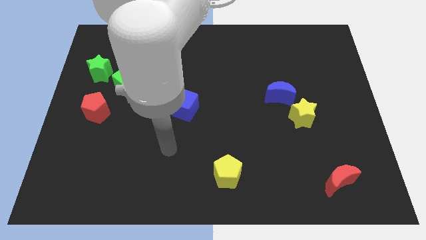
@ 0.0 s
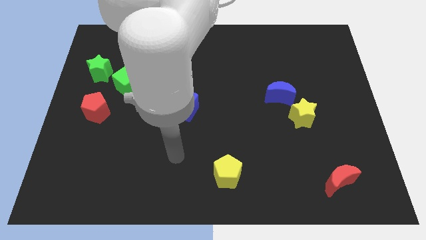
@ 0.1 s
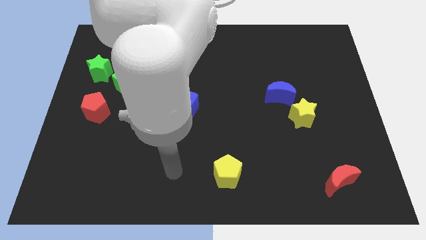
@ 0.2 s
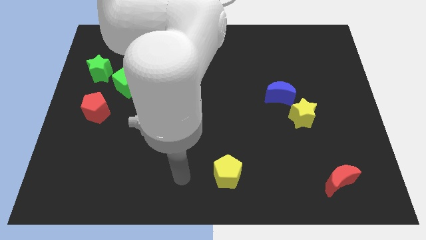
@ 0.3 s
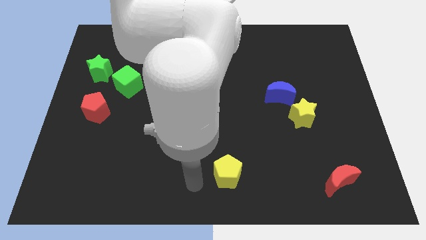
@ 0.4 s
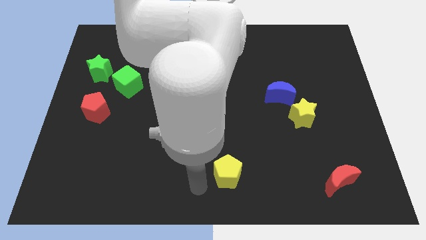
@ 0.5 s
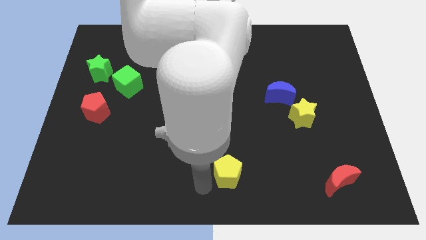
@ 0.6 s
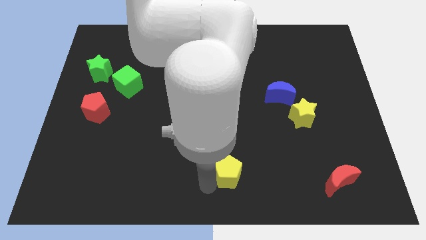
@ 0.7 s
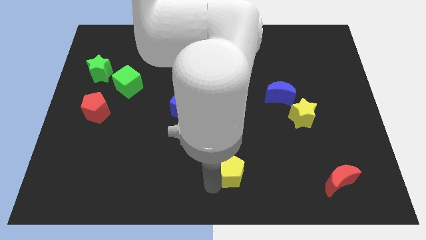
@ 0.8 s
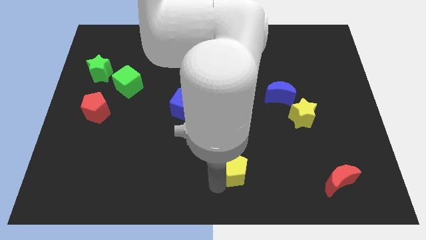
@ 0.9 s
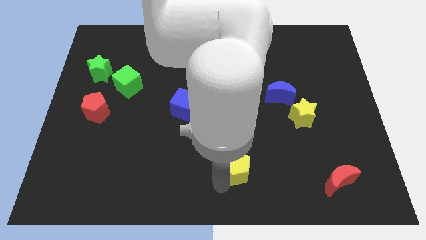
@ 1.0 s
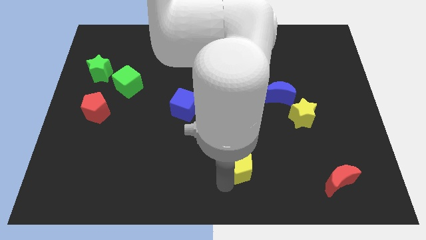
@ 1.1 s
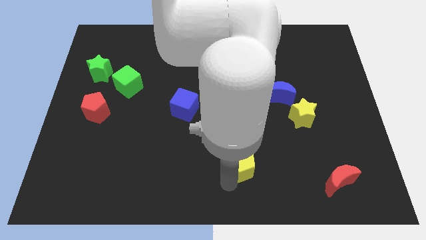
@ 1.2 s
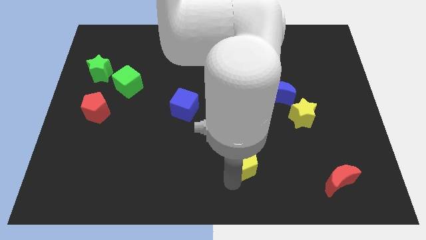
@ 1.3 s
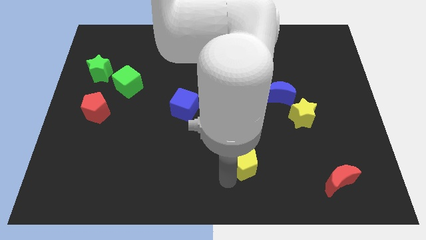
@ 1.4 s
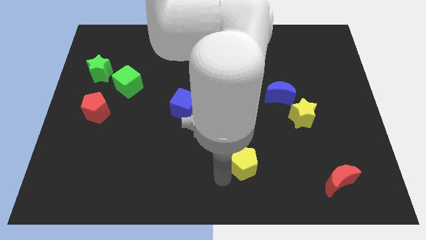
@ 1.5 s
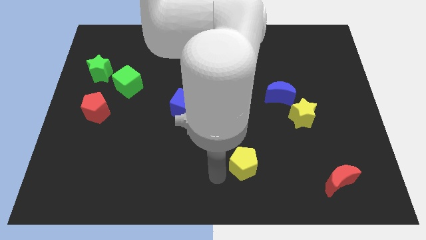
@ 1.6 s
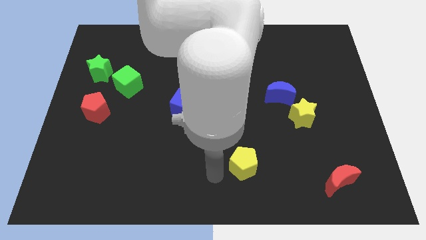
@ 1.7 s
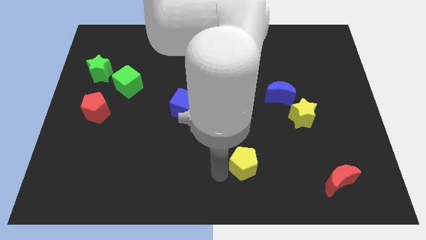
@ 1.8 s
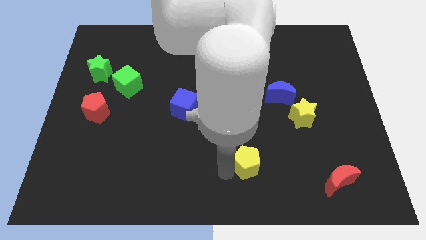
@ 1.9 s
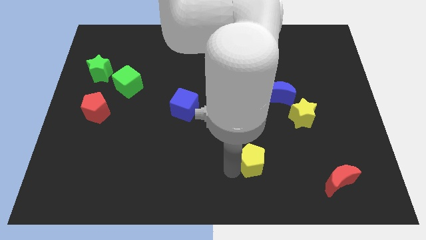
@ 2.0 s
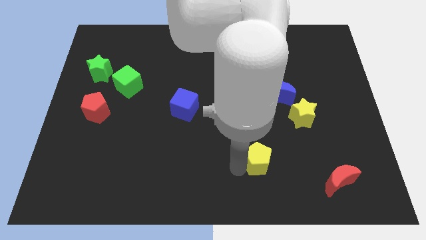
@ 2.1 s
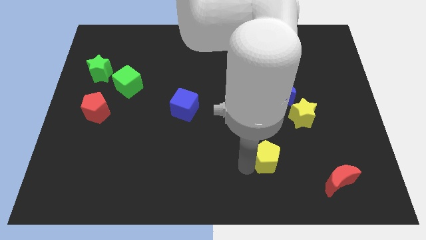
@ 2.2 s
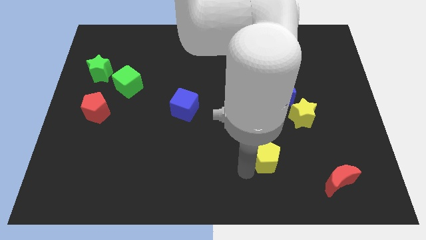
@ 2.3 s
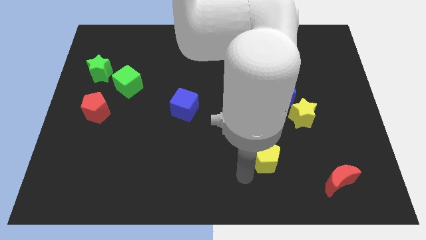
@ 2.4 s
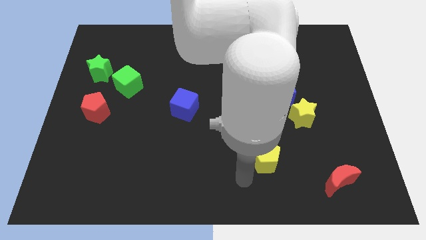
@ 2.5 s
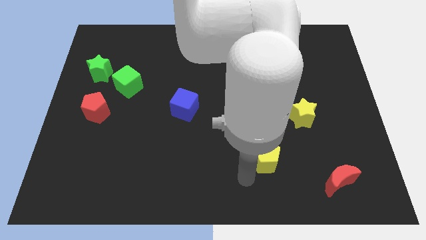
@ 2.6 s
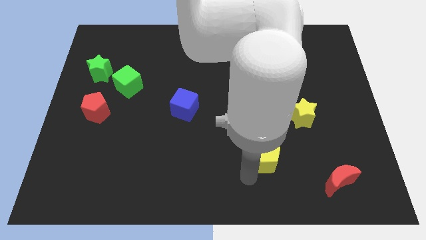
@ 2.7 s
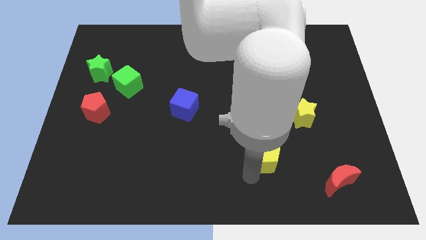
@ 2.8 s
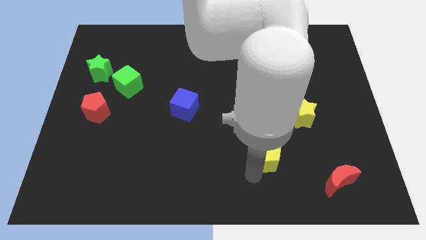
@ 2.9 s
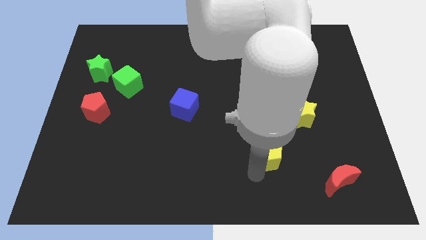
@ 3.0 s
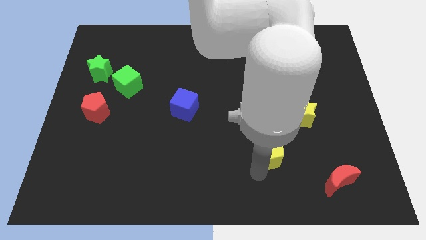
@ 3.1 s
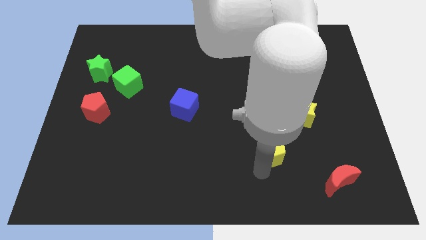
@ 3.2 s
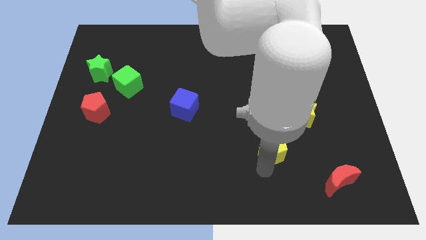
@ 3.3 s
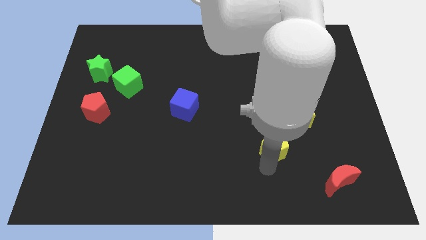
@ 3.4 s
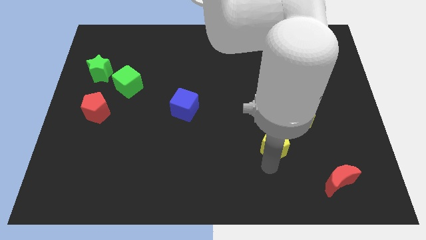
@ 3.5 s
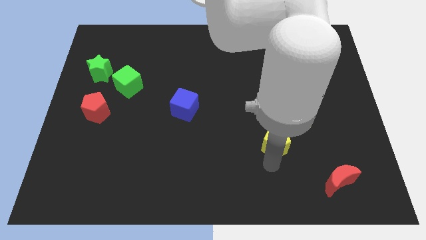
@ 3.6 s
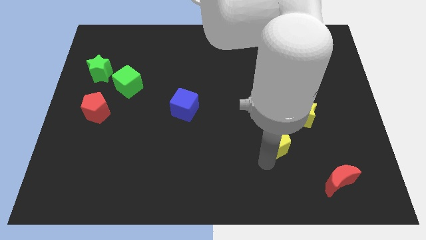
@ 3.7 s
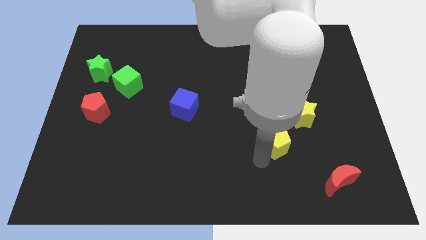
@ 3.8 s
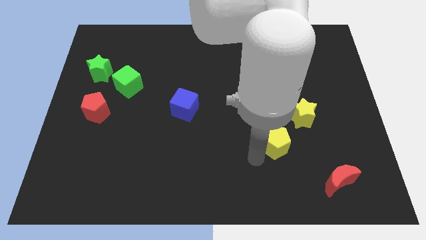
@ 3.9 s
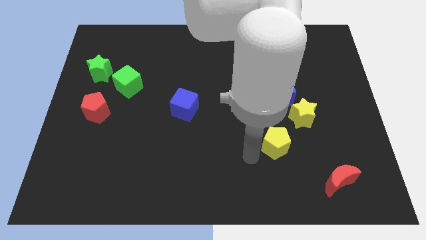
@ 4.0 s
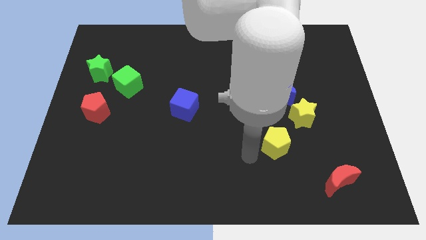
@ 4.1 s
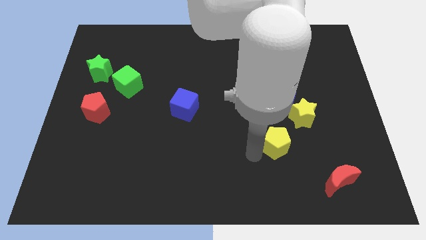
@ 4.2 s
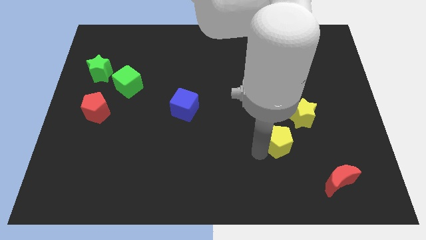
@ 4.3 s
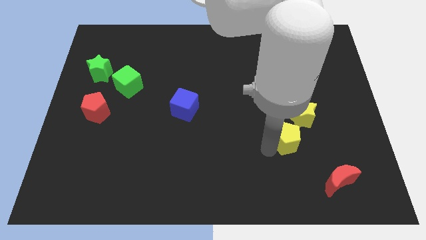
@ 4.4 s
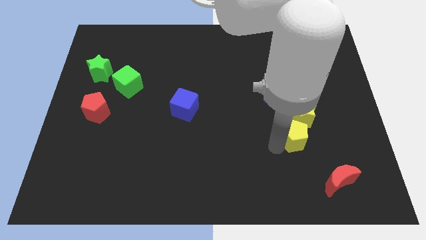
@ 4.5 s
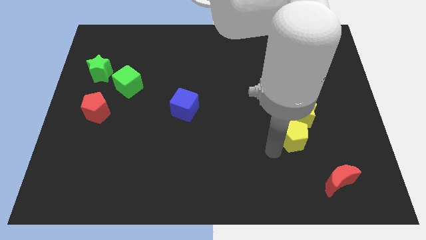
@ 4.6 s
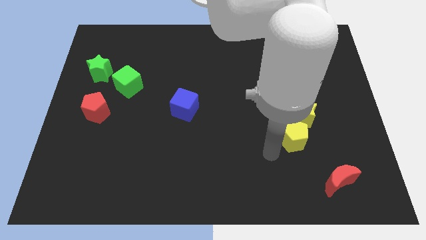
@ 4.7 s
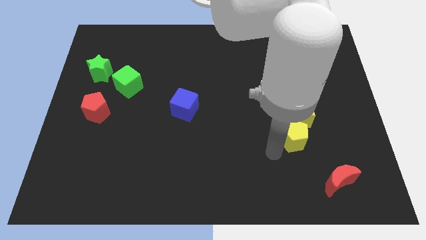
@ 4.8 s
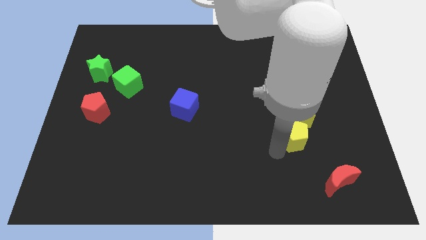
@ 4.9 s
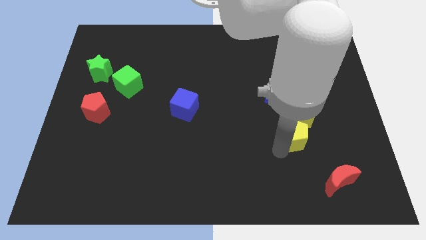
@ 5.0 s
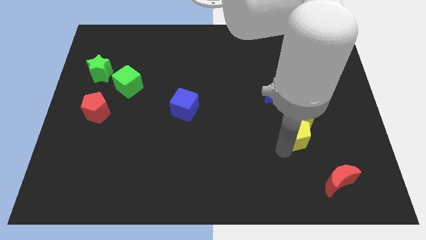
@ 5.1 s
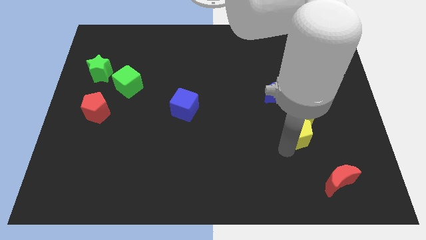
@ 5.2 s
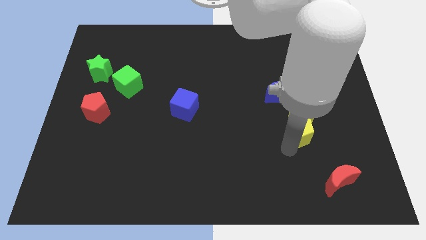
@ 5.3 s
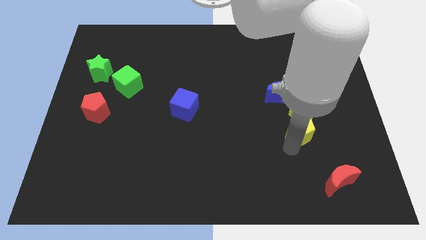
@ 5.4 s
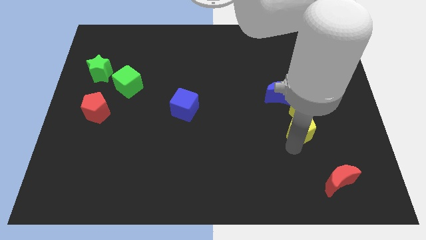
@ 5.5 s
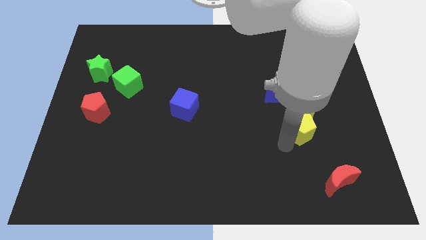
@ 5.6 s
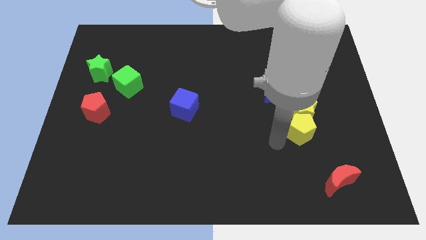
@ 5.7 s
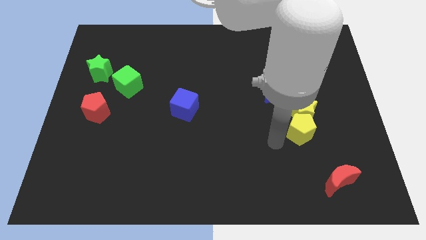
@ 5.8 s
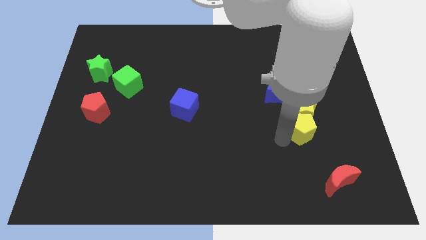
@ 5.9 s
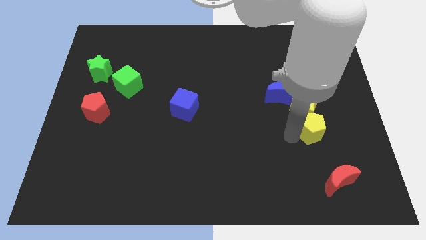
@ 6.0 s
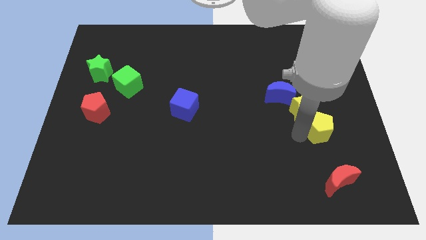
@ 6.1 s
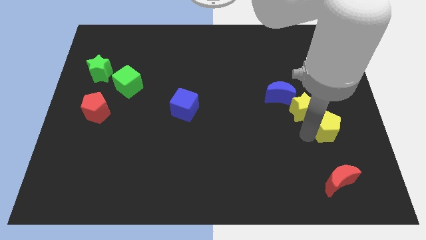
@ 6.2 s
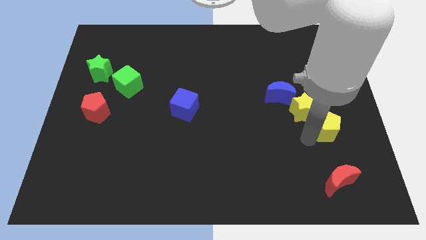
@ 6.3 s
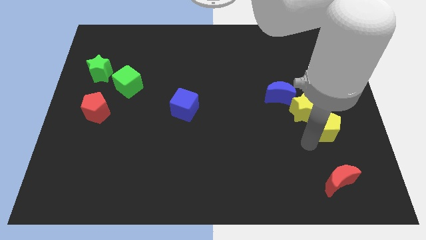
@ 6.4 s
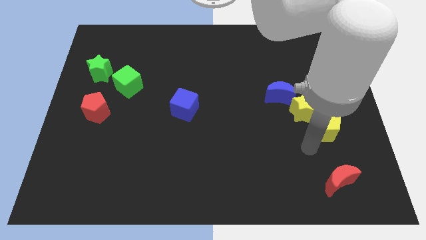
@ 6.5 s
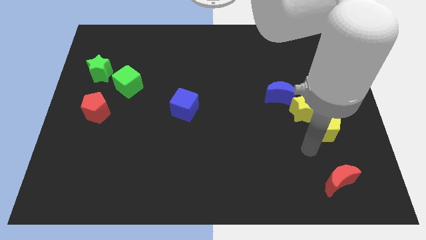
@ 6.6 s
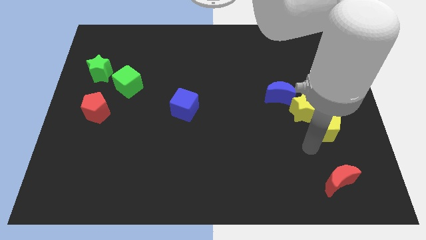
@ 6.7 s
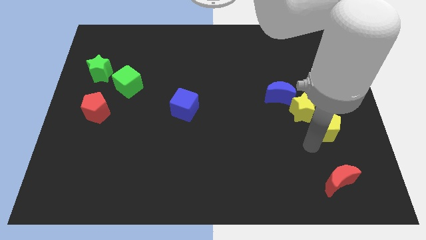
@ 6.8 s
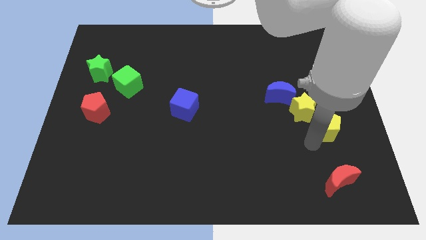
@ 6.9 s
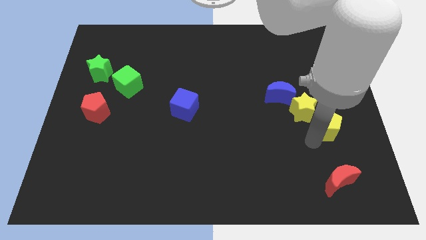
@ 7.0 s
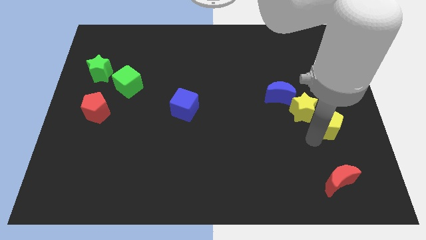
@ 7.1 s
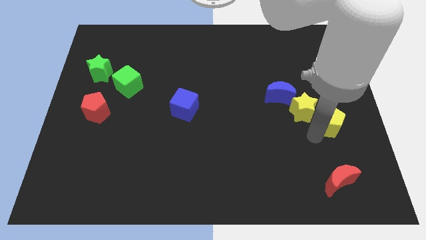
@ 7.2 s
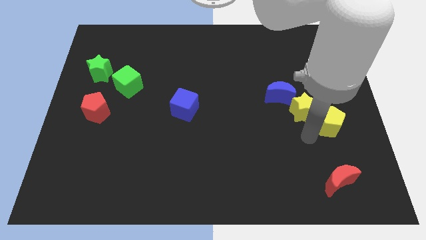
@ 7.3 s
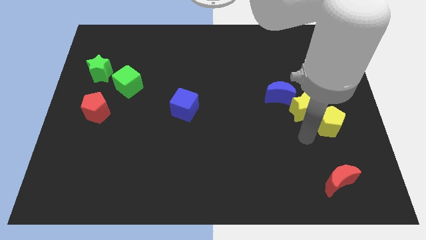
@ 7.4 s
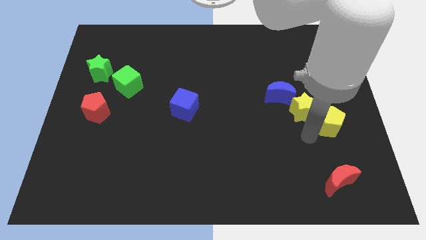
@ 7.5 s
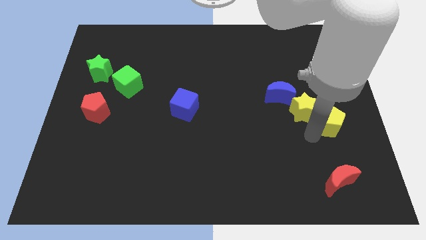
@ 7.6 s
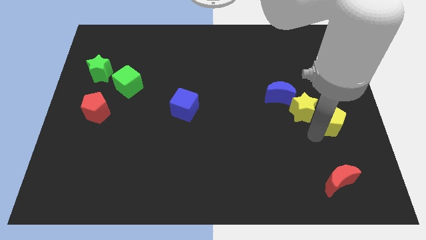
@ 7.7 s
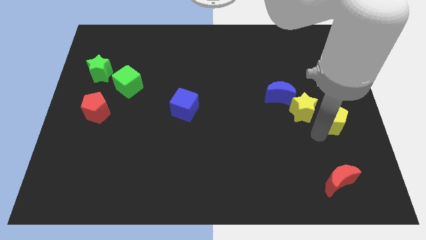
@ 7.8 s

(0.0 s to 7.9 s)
slide the yellow pentagon to the right side of the board
